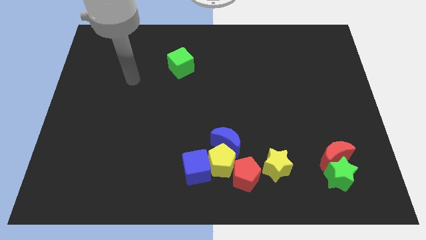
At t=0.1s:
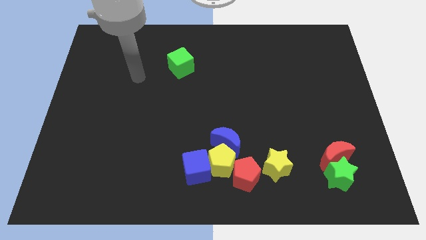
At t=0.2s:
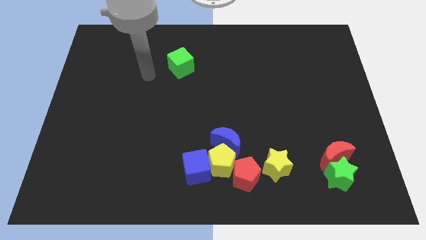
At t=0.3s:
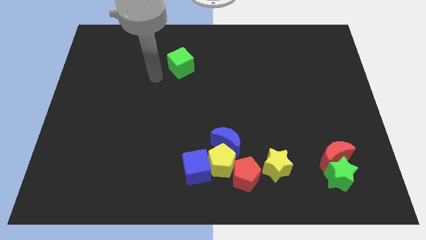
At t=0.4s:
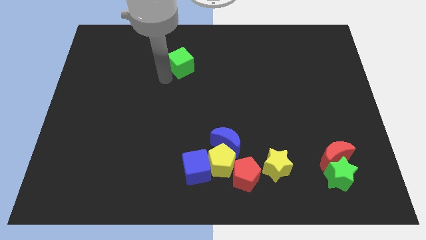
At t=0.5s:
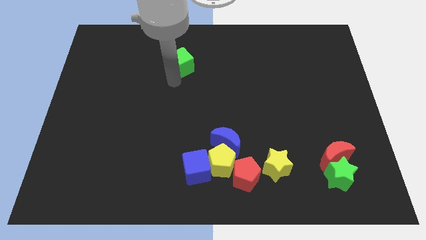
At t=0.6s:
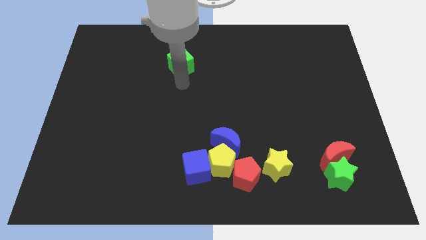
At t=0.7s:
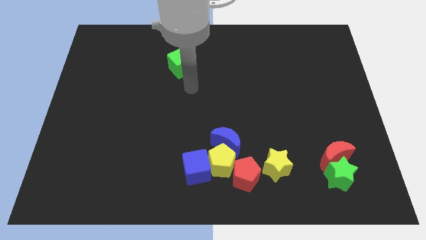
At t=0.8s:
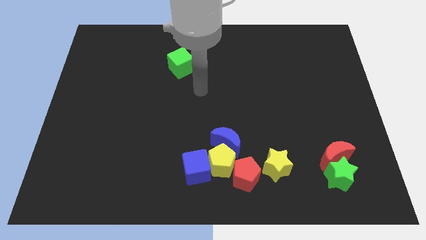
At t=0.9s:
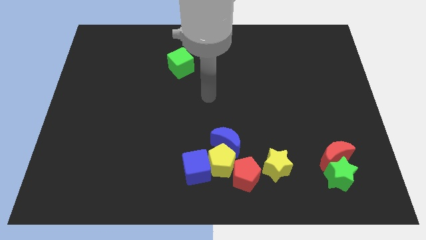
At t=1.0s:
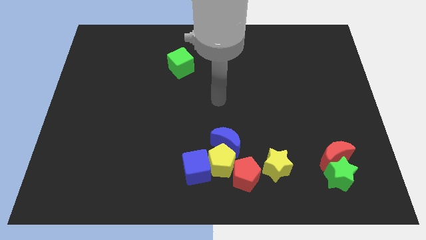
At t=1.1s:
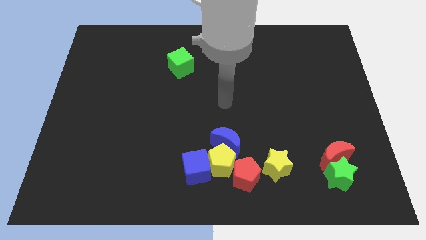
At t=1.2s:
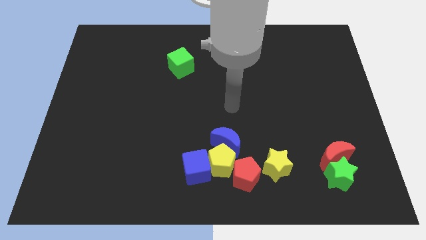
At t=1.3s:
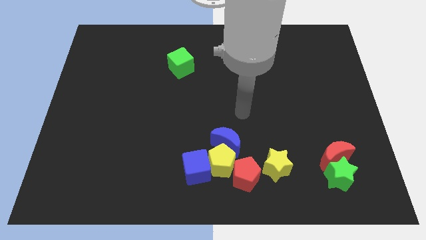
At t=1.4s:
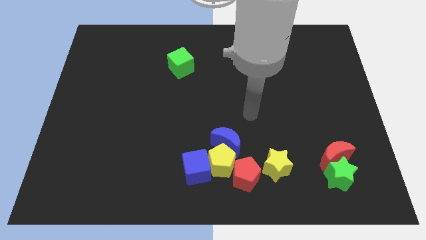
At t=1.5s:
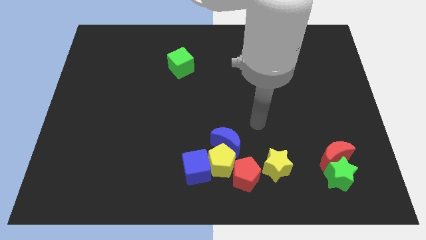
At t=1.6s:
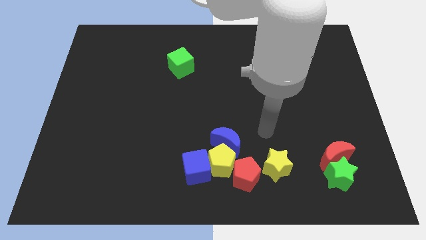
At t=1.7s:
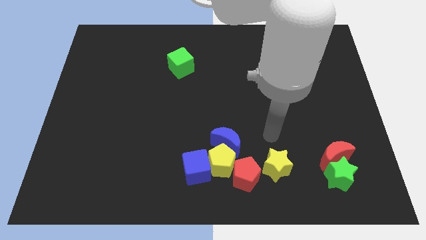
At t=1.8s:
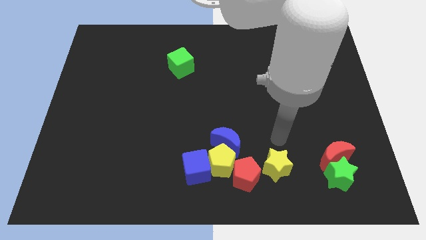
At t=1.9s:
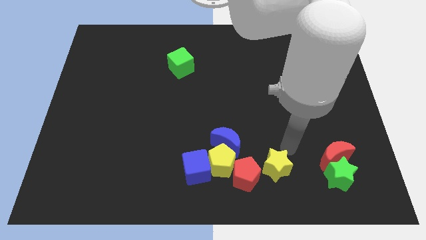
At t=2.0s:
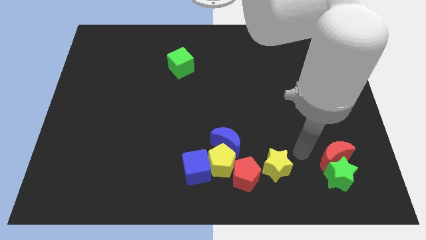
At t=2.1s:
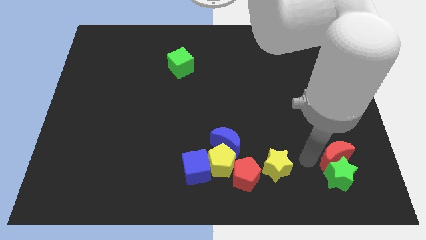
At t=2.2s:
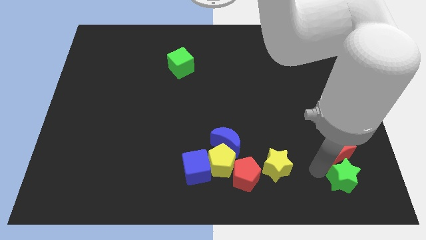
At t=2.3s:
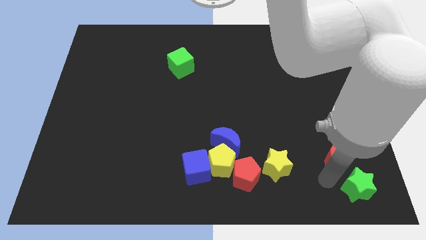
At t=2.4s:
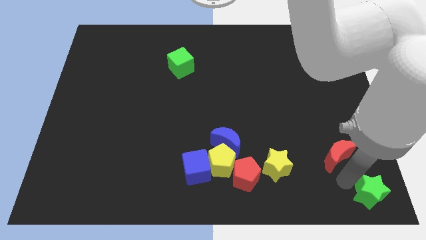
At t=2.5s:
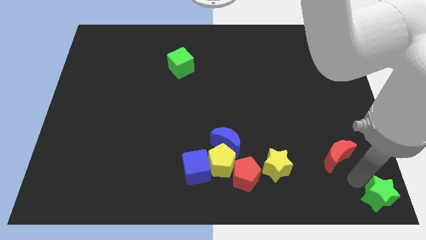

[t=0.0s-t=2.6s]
separate the red moon from the green star

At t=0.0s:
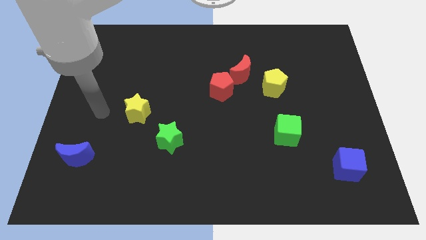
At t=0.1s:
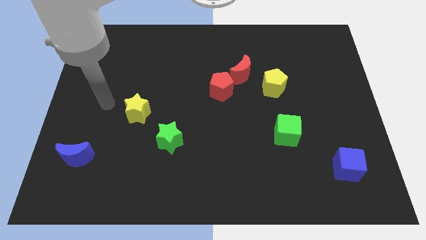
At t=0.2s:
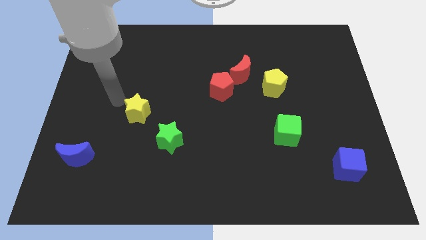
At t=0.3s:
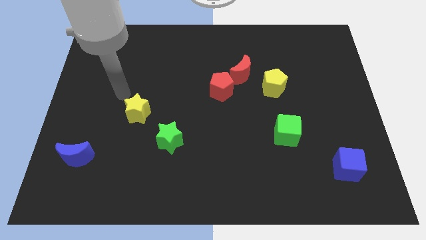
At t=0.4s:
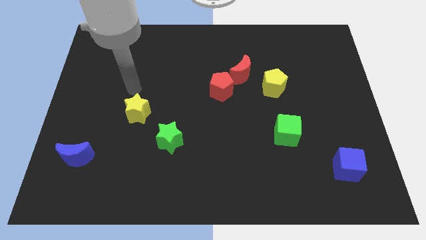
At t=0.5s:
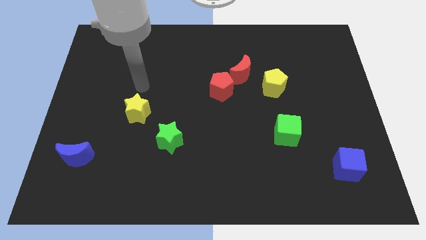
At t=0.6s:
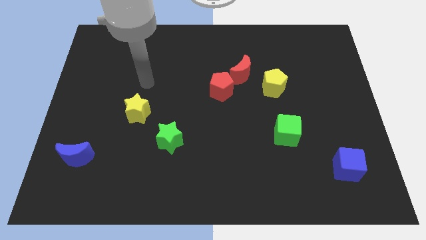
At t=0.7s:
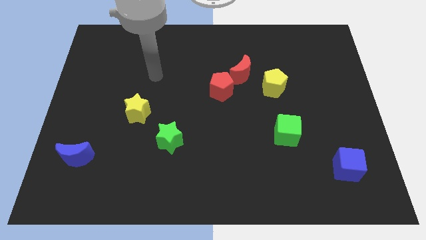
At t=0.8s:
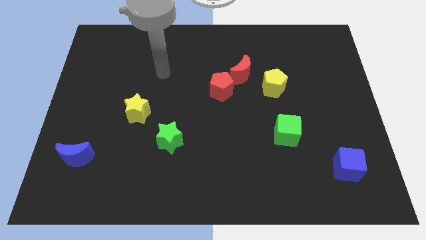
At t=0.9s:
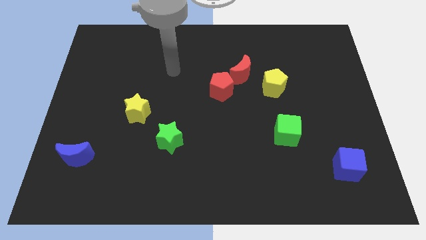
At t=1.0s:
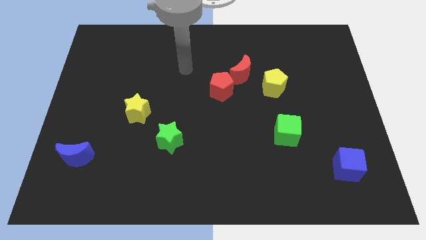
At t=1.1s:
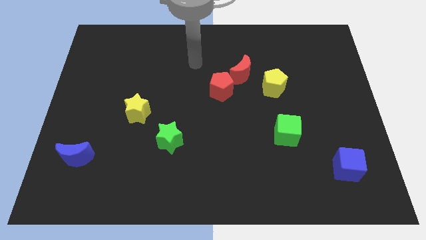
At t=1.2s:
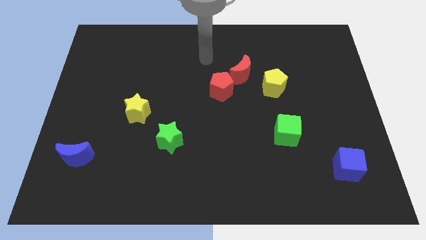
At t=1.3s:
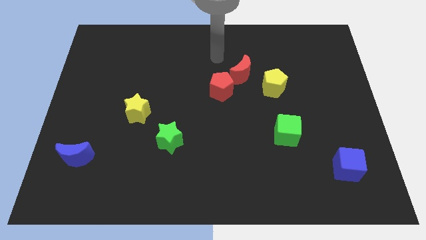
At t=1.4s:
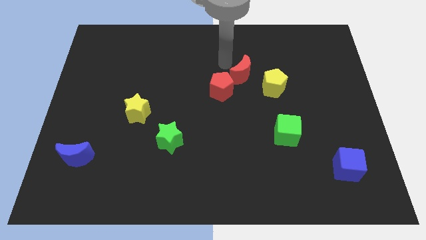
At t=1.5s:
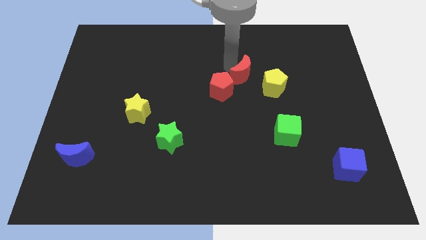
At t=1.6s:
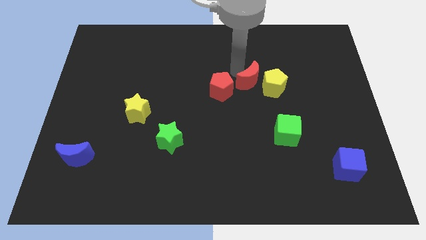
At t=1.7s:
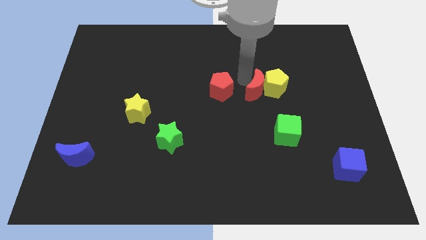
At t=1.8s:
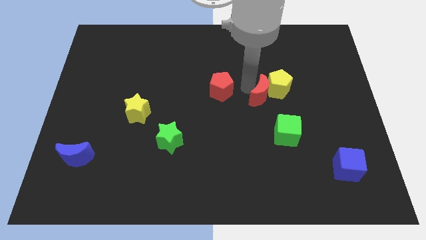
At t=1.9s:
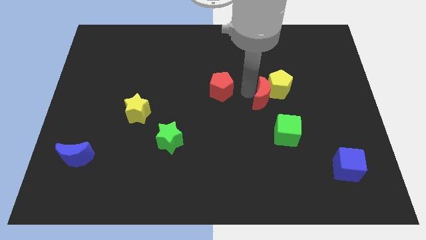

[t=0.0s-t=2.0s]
separate the red pentagon from the red moon

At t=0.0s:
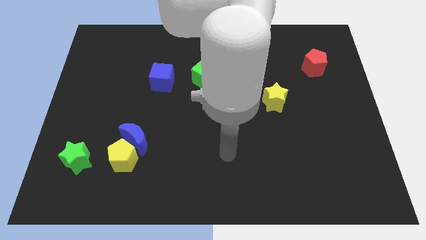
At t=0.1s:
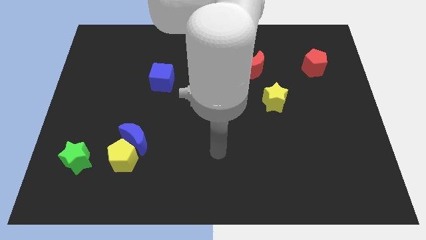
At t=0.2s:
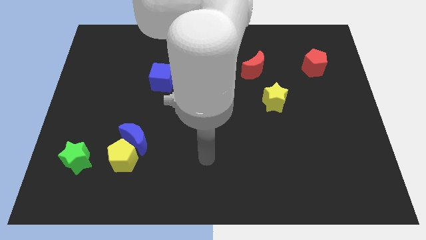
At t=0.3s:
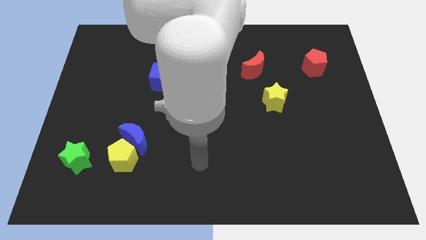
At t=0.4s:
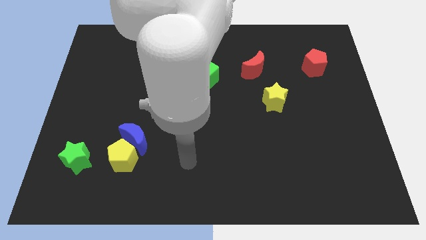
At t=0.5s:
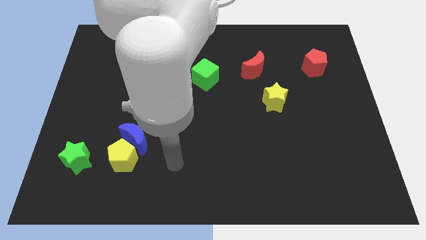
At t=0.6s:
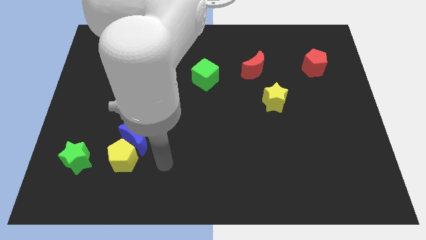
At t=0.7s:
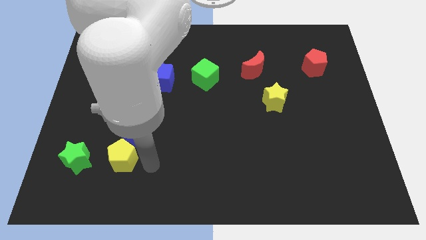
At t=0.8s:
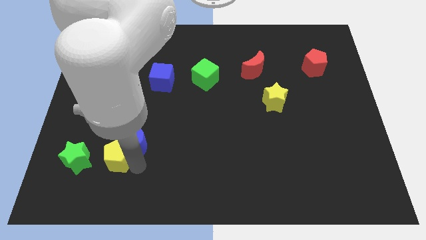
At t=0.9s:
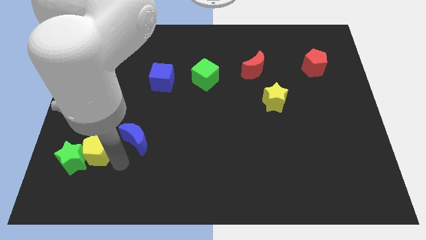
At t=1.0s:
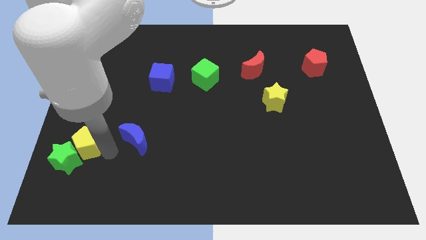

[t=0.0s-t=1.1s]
move the blue moon away from the yellow pentagon

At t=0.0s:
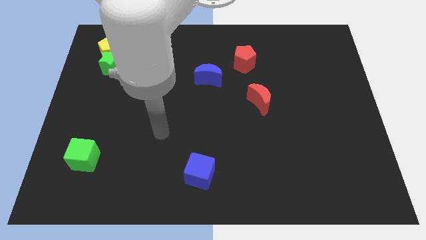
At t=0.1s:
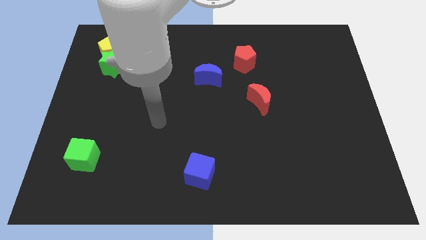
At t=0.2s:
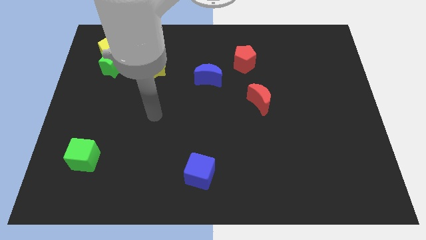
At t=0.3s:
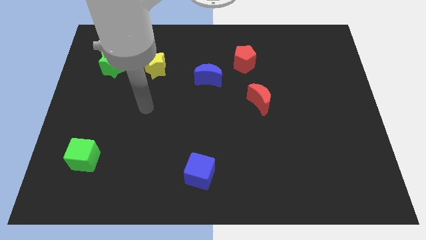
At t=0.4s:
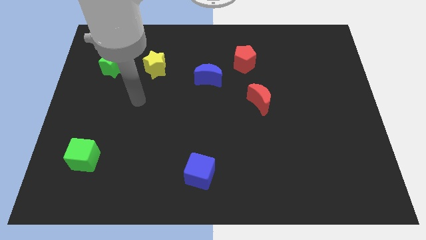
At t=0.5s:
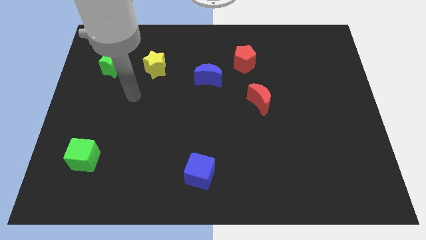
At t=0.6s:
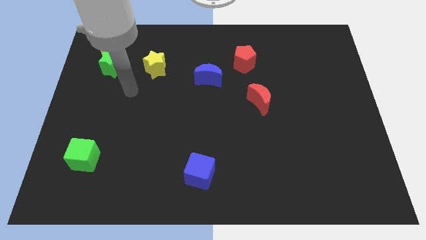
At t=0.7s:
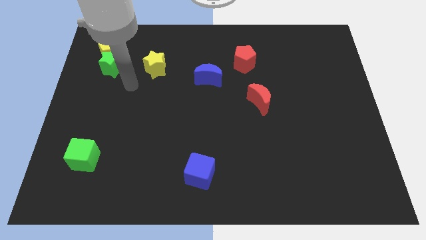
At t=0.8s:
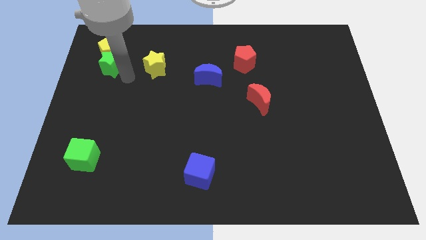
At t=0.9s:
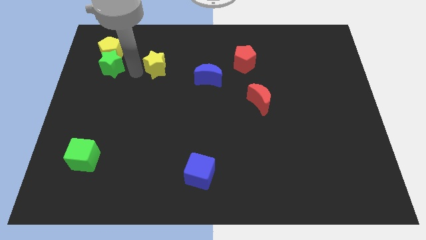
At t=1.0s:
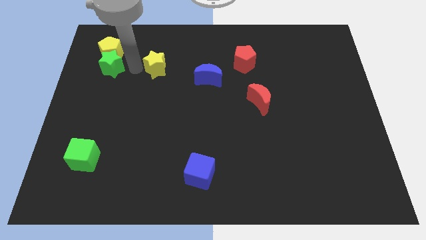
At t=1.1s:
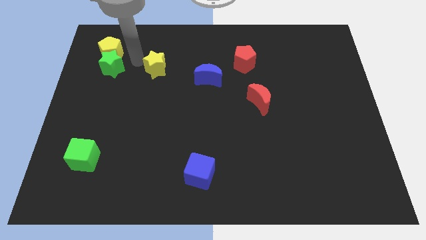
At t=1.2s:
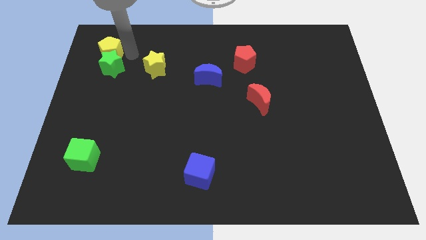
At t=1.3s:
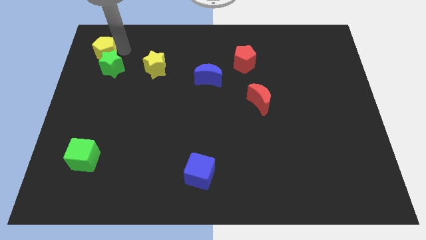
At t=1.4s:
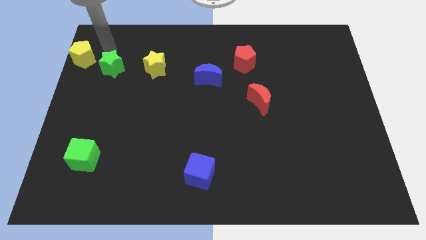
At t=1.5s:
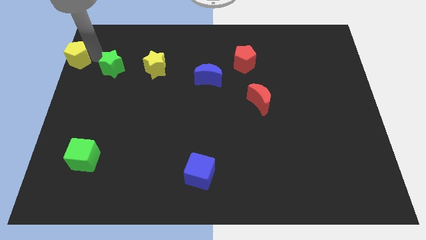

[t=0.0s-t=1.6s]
pull the green star apart from the yellow pentagon

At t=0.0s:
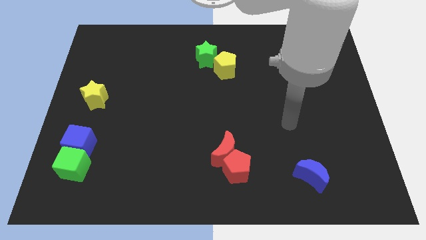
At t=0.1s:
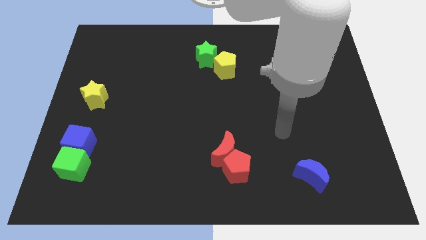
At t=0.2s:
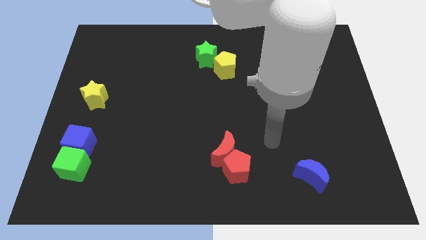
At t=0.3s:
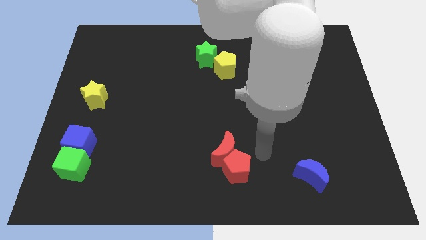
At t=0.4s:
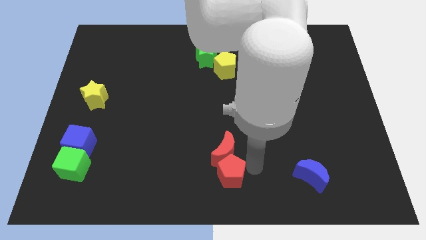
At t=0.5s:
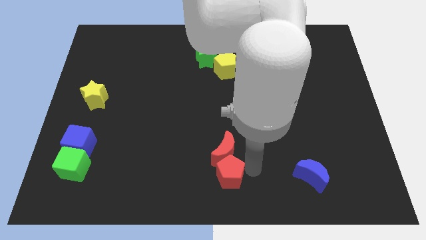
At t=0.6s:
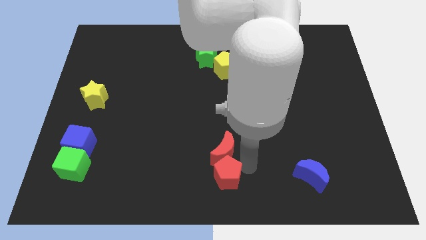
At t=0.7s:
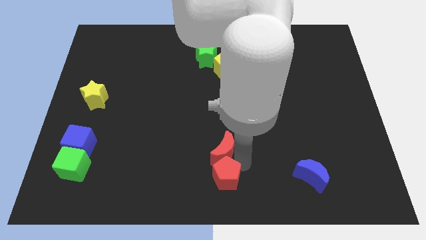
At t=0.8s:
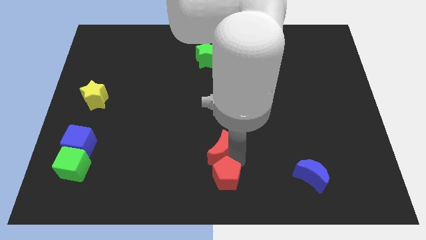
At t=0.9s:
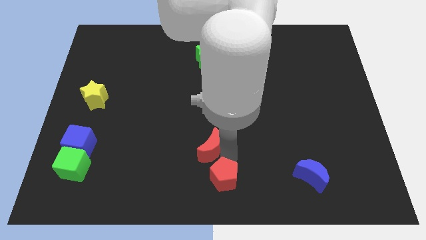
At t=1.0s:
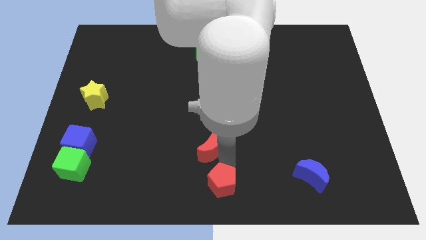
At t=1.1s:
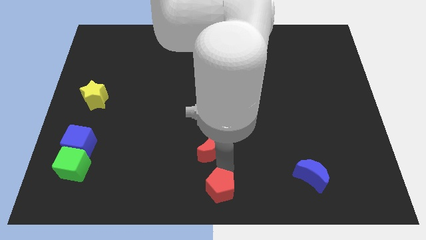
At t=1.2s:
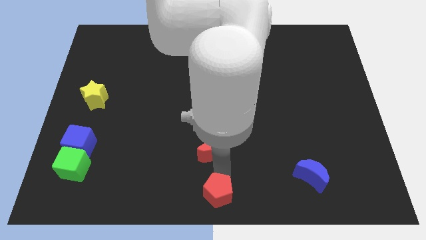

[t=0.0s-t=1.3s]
separate the red moon from the red pentagon

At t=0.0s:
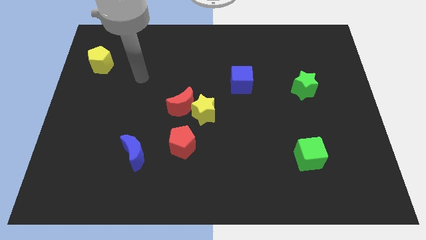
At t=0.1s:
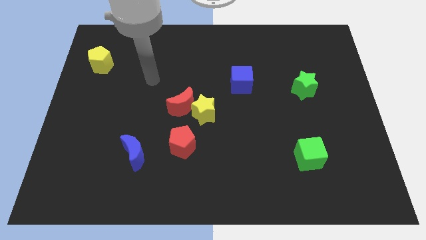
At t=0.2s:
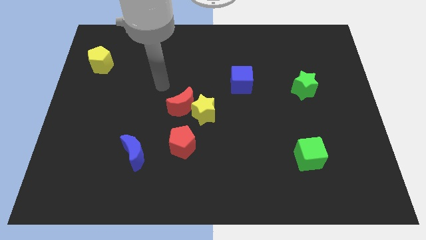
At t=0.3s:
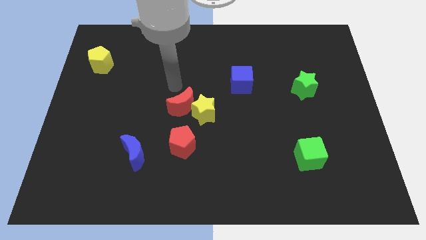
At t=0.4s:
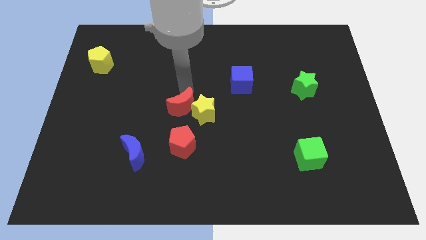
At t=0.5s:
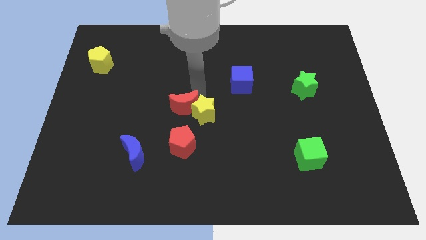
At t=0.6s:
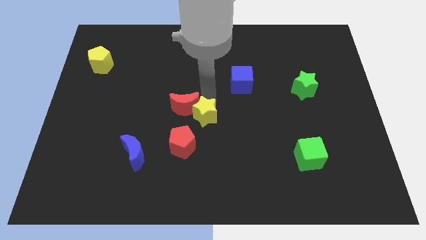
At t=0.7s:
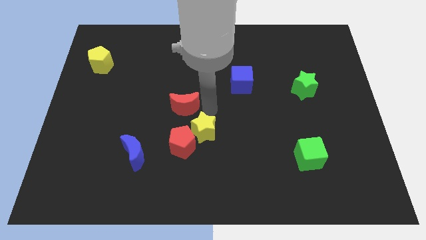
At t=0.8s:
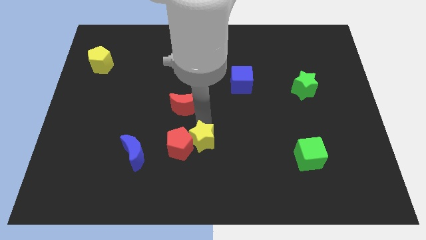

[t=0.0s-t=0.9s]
separate the red moon from the yellow star
